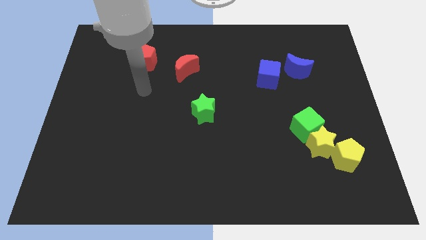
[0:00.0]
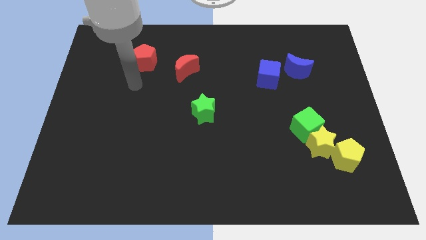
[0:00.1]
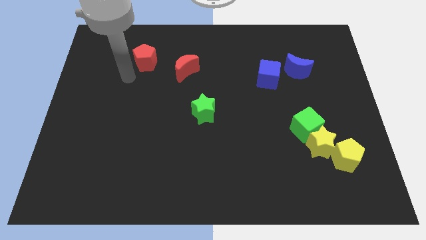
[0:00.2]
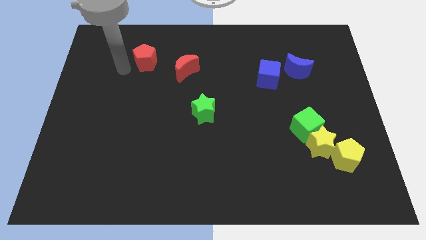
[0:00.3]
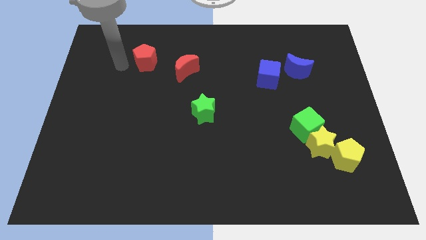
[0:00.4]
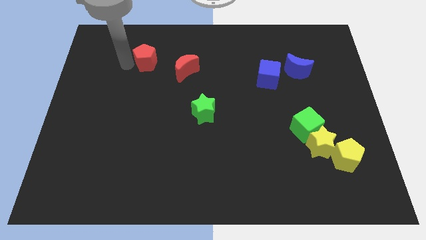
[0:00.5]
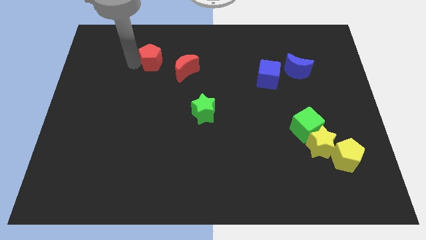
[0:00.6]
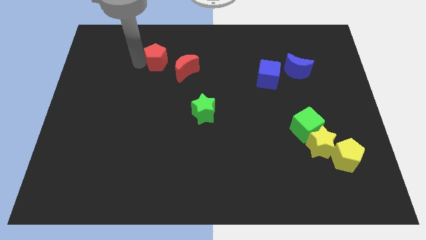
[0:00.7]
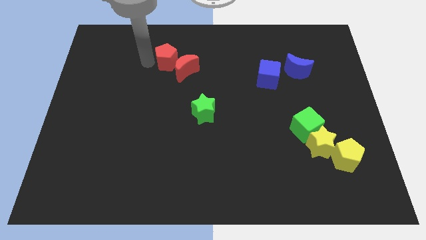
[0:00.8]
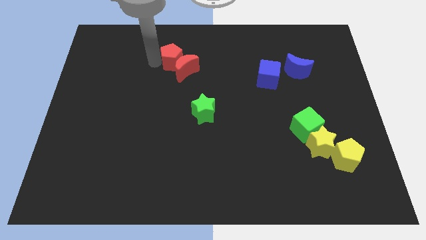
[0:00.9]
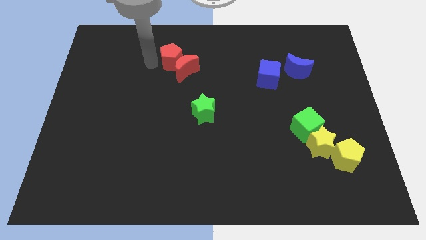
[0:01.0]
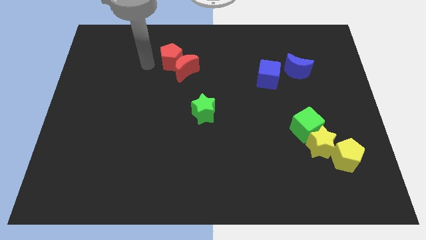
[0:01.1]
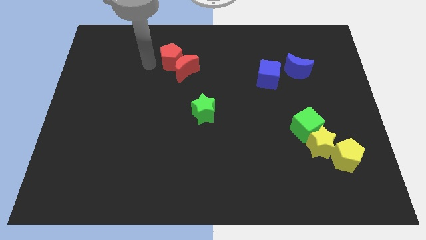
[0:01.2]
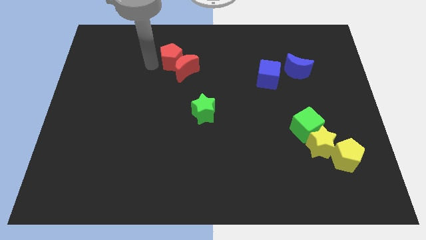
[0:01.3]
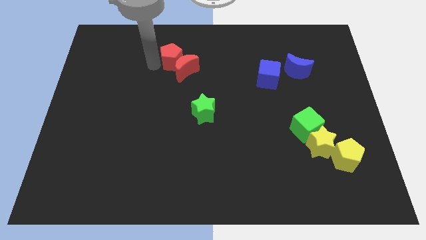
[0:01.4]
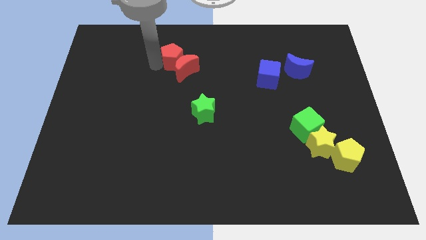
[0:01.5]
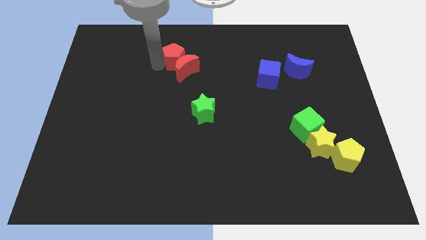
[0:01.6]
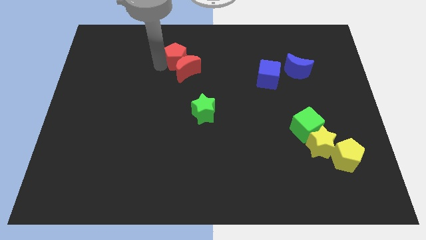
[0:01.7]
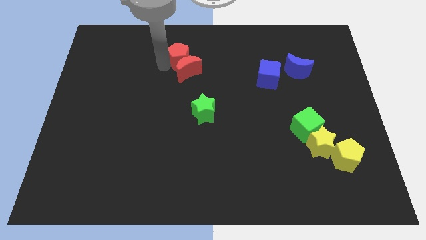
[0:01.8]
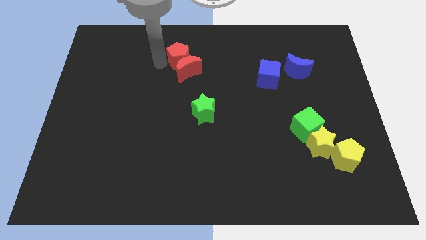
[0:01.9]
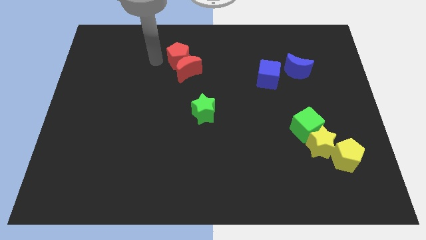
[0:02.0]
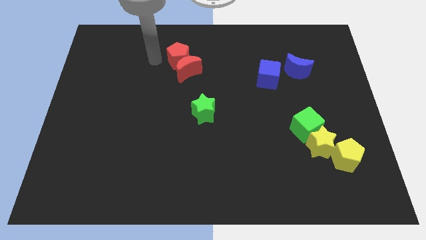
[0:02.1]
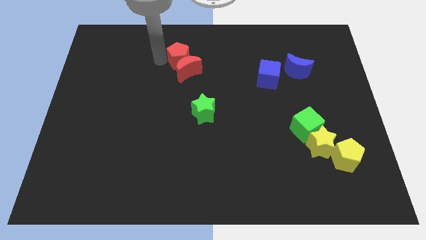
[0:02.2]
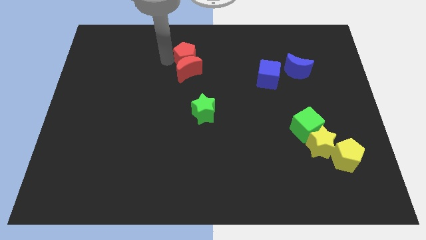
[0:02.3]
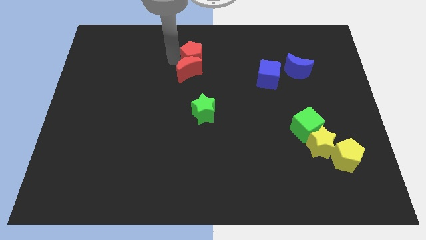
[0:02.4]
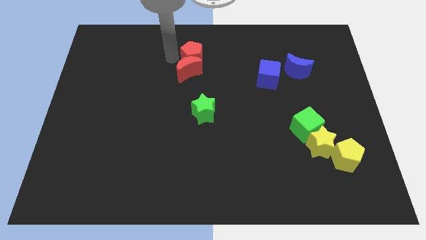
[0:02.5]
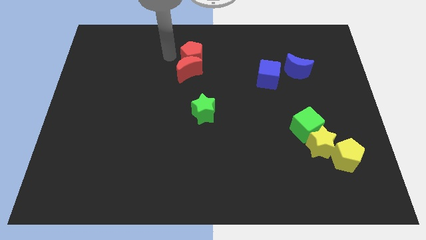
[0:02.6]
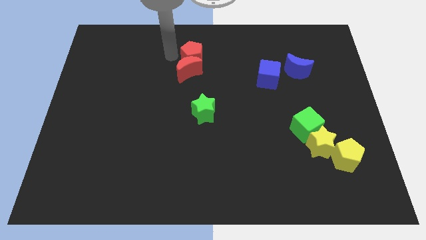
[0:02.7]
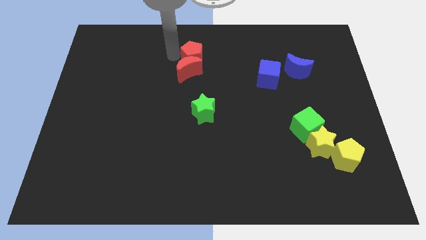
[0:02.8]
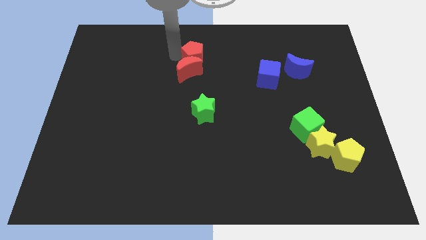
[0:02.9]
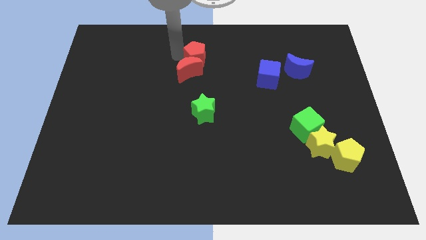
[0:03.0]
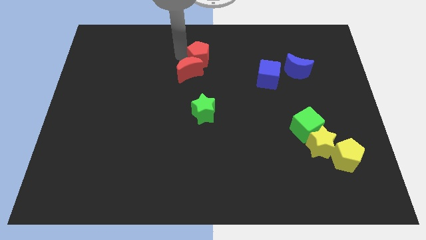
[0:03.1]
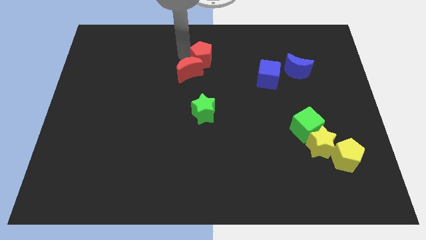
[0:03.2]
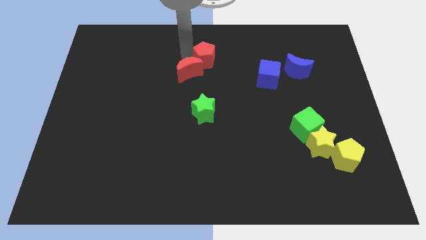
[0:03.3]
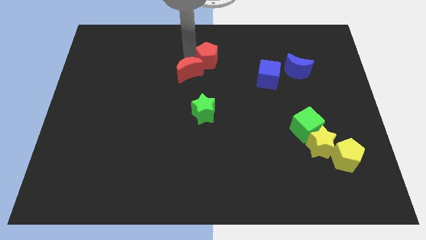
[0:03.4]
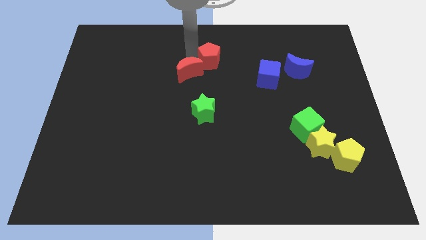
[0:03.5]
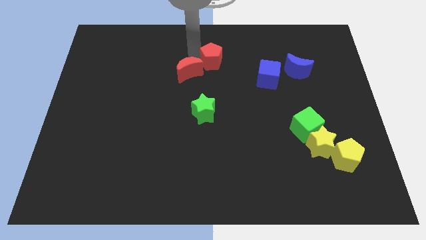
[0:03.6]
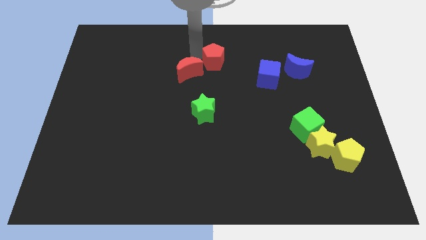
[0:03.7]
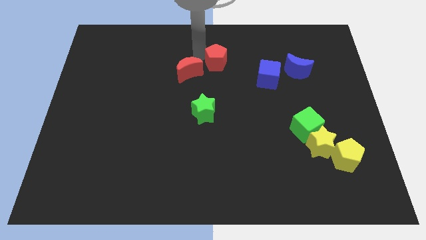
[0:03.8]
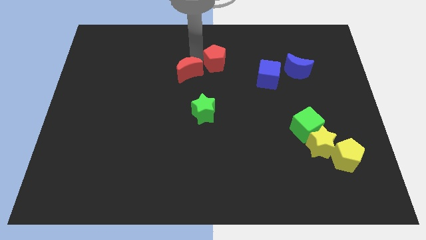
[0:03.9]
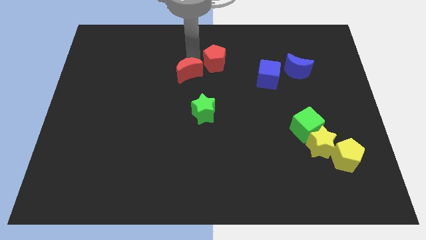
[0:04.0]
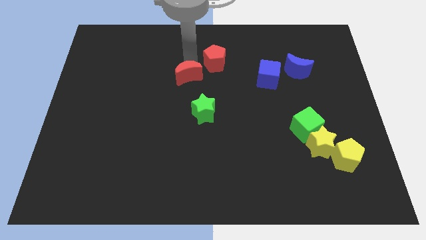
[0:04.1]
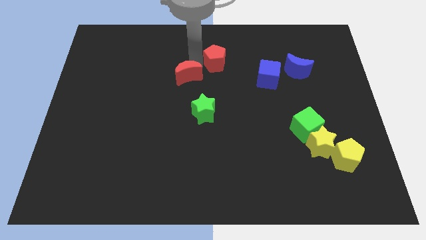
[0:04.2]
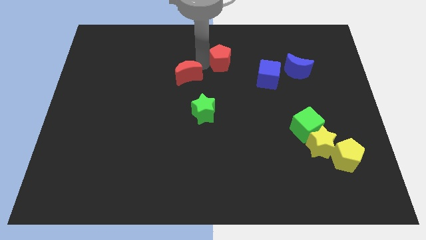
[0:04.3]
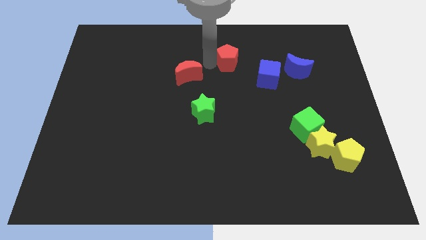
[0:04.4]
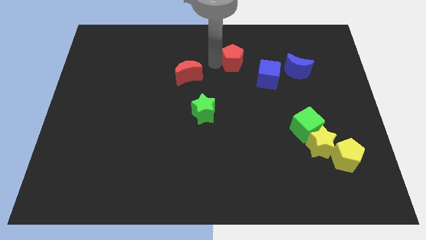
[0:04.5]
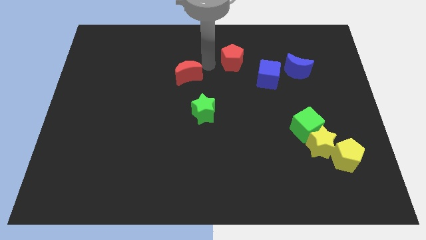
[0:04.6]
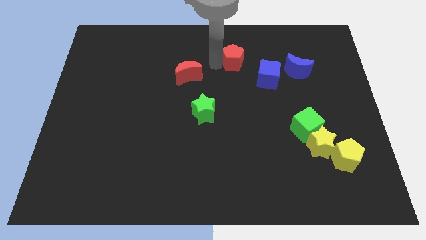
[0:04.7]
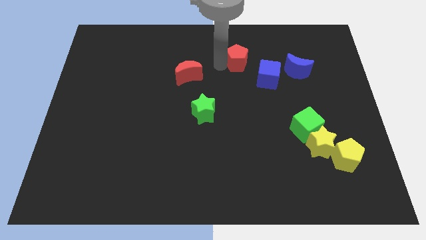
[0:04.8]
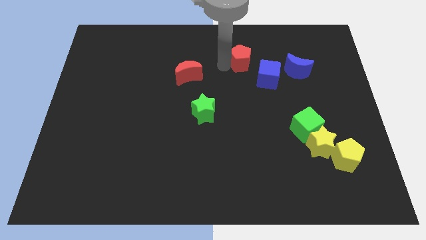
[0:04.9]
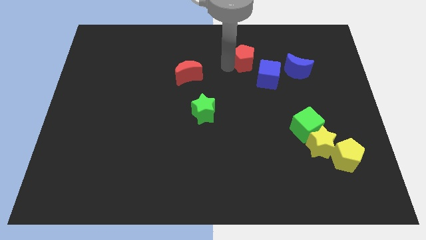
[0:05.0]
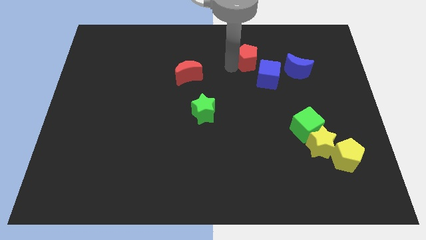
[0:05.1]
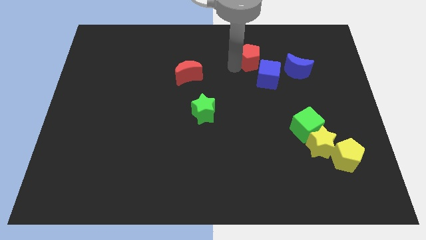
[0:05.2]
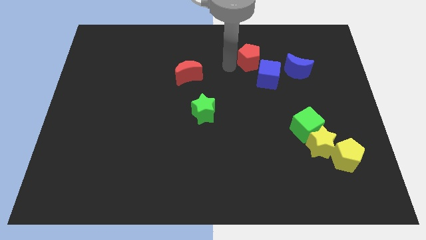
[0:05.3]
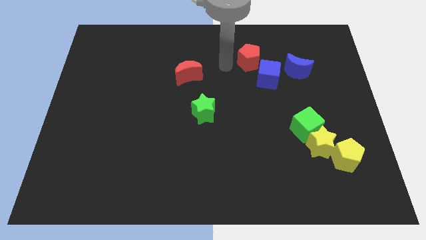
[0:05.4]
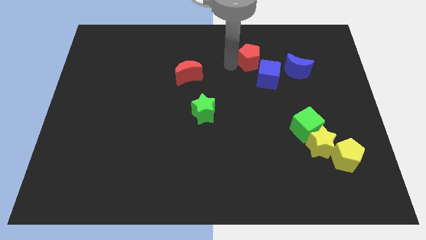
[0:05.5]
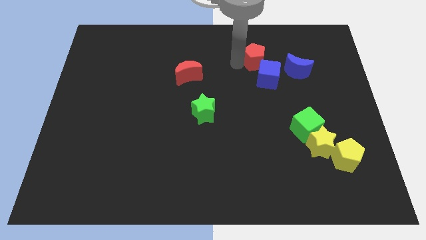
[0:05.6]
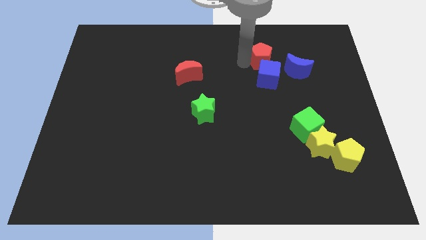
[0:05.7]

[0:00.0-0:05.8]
push the red pentagon to the top left side of the blue moon

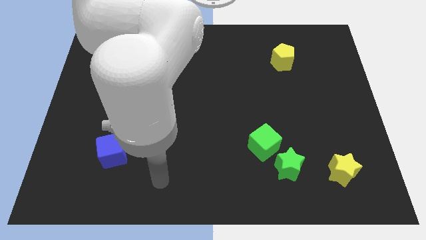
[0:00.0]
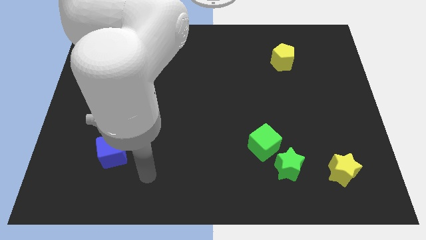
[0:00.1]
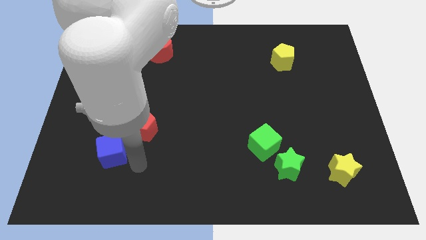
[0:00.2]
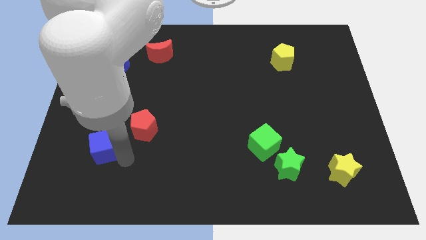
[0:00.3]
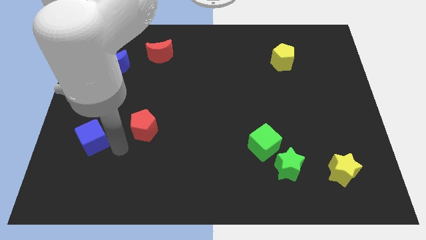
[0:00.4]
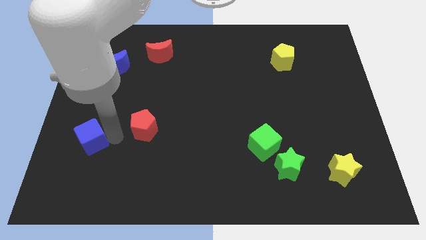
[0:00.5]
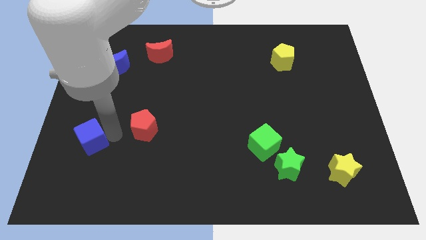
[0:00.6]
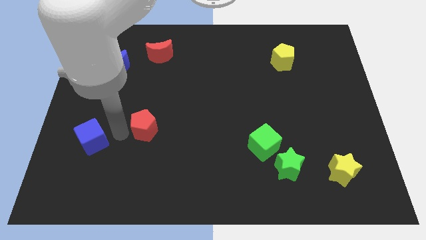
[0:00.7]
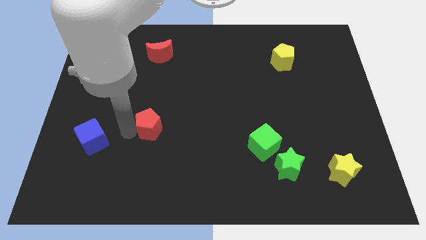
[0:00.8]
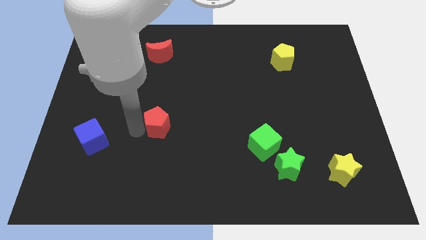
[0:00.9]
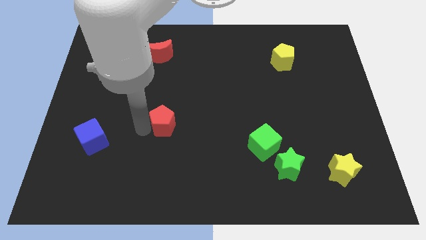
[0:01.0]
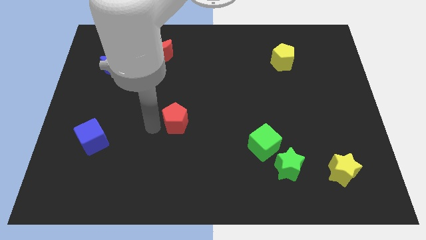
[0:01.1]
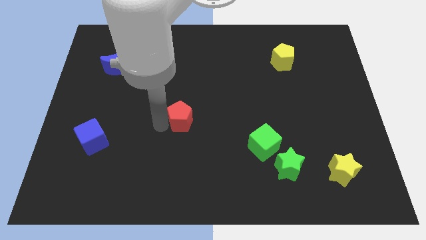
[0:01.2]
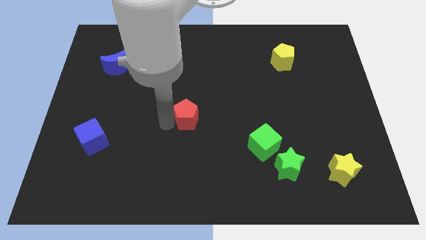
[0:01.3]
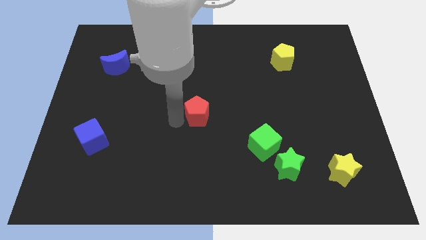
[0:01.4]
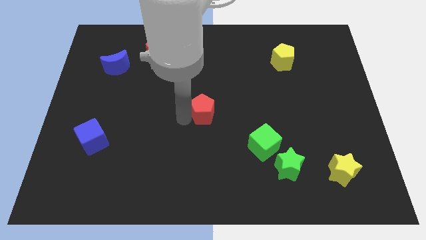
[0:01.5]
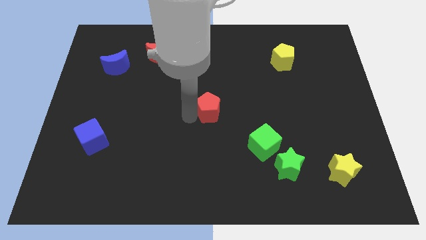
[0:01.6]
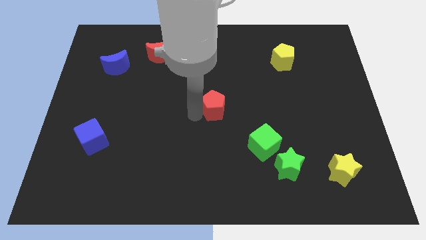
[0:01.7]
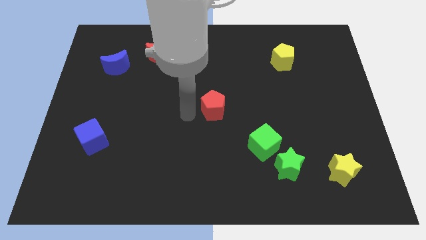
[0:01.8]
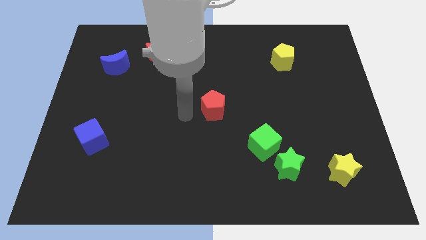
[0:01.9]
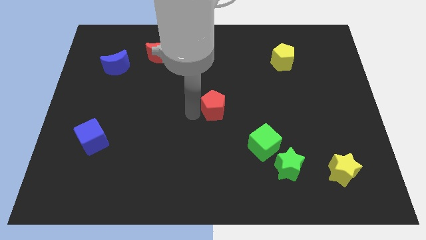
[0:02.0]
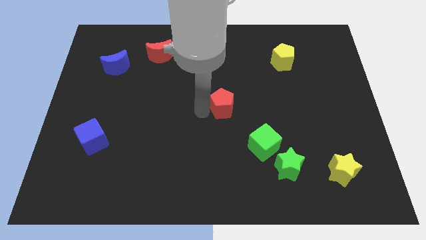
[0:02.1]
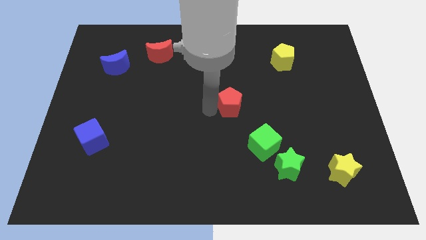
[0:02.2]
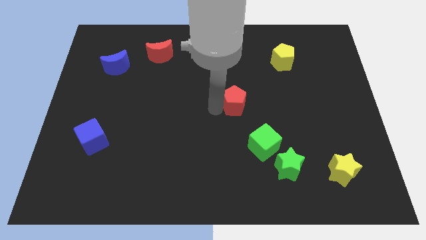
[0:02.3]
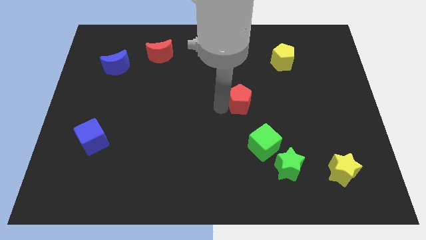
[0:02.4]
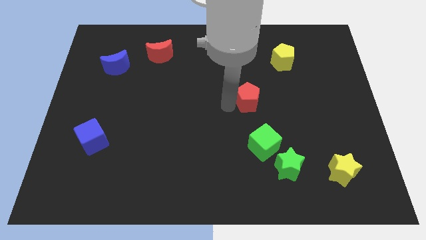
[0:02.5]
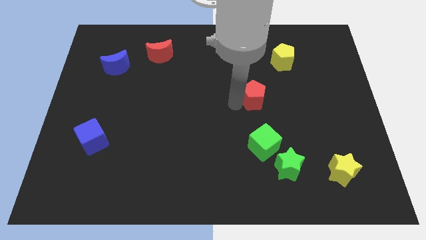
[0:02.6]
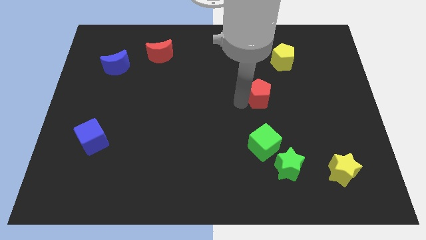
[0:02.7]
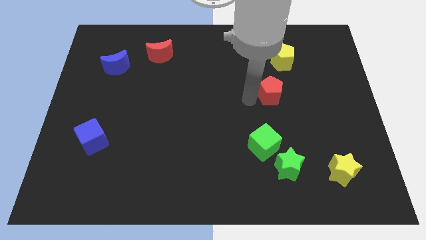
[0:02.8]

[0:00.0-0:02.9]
put the red pentagon below the yellow pentagon
